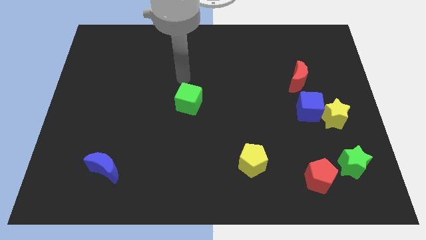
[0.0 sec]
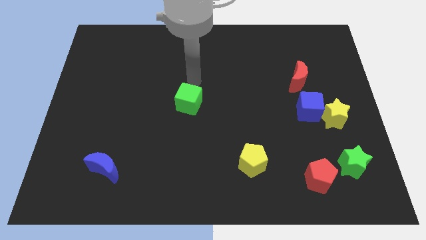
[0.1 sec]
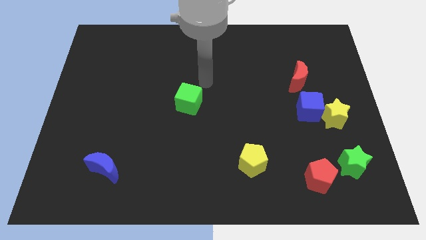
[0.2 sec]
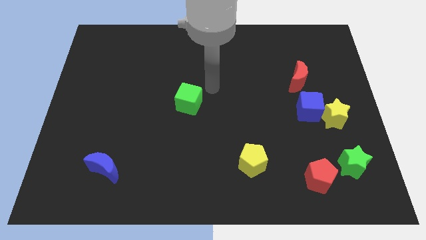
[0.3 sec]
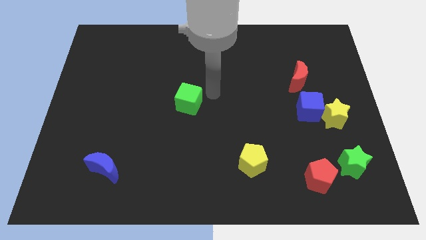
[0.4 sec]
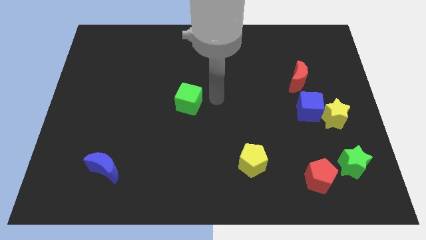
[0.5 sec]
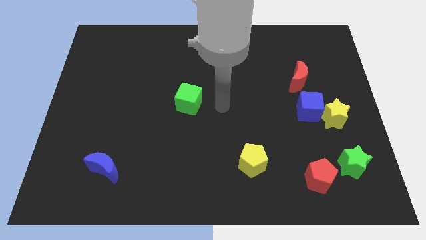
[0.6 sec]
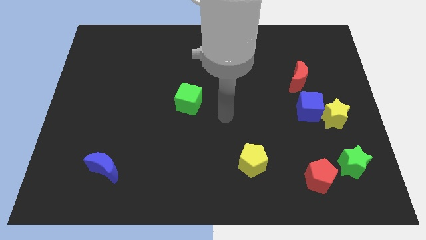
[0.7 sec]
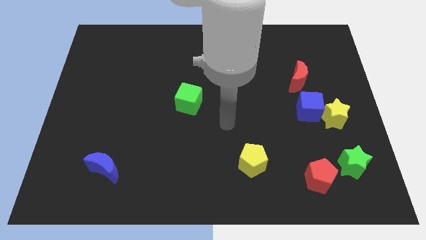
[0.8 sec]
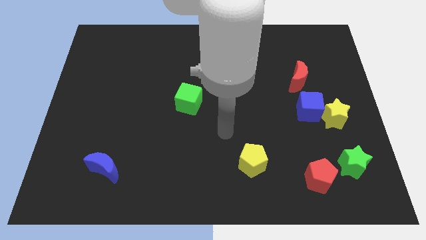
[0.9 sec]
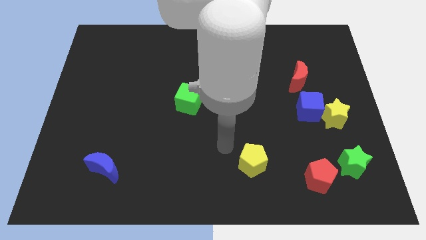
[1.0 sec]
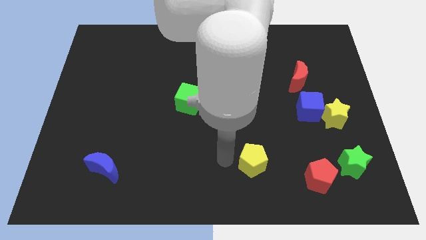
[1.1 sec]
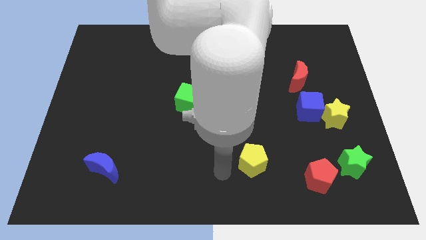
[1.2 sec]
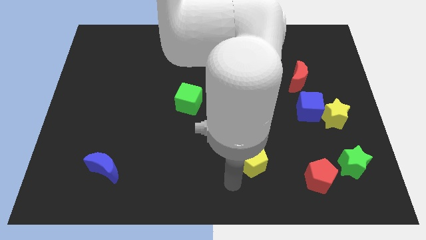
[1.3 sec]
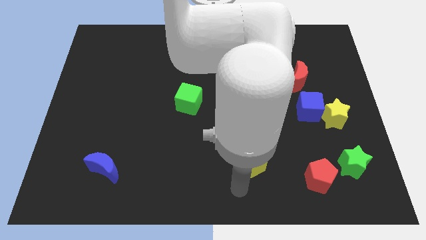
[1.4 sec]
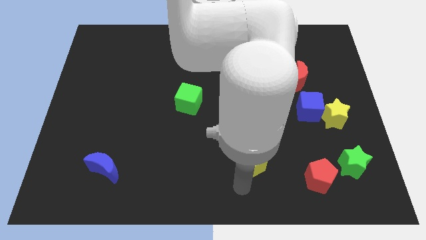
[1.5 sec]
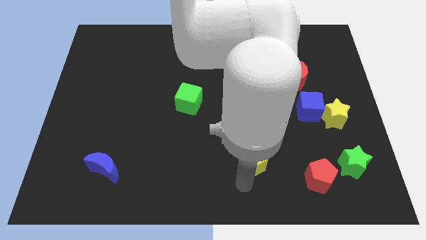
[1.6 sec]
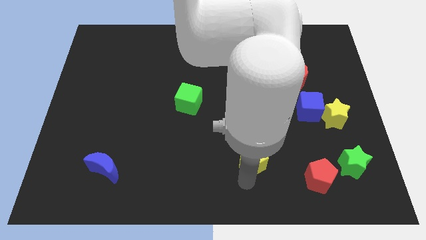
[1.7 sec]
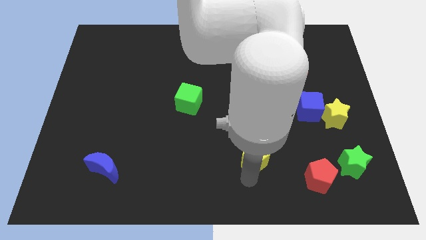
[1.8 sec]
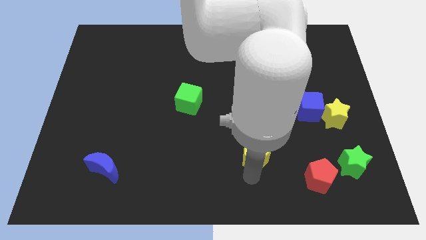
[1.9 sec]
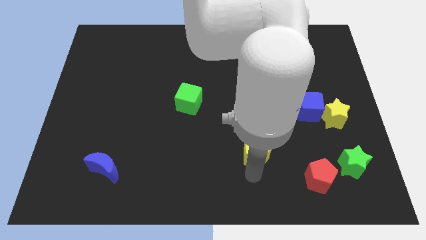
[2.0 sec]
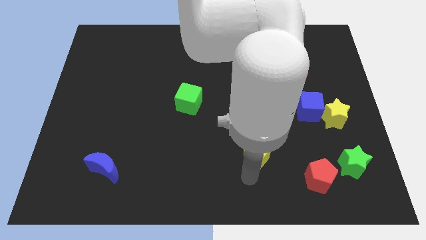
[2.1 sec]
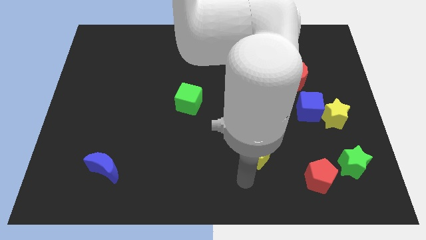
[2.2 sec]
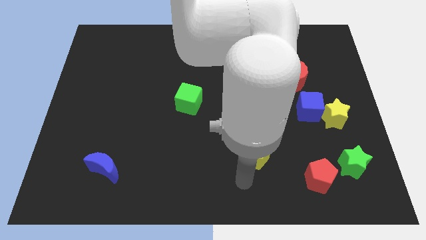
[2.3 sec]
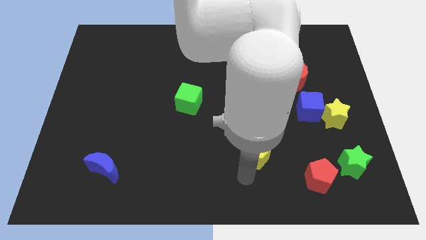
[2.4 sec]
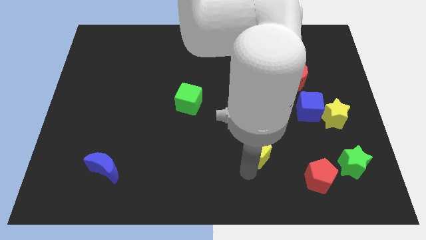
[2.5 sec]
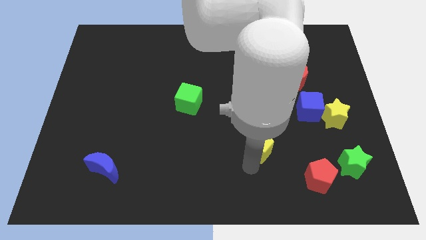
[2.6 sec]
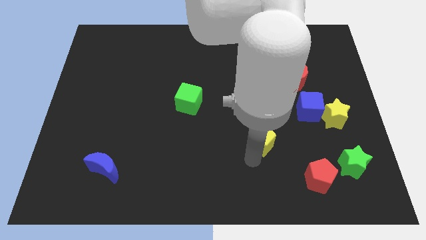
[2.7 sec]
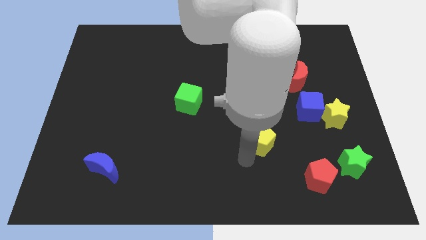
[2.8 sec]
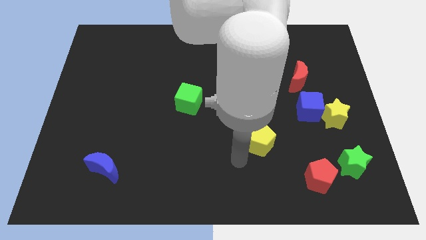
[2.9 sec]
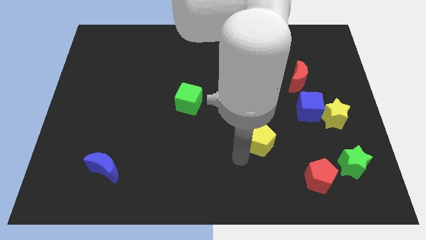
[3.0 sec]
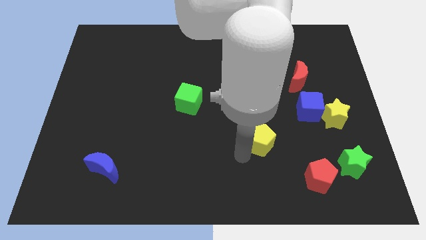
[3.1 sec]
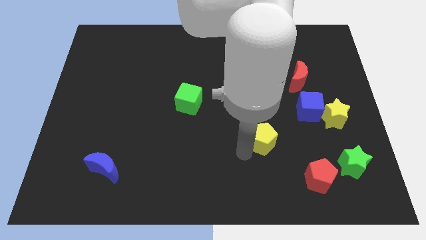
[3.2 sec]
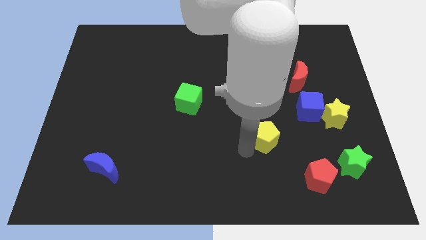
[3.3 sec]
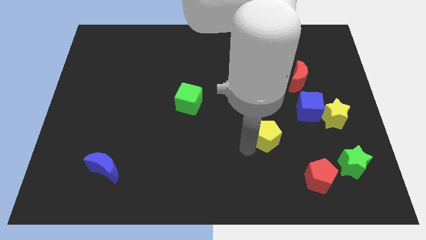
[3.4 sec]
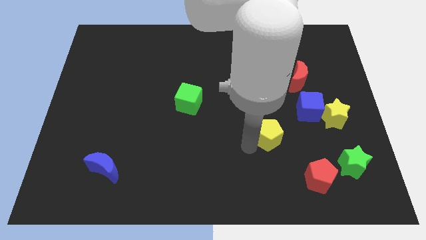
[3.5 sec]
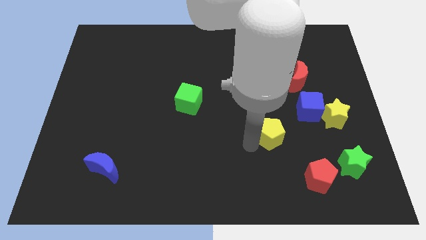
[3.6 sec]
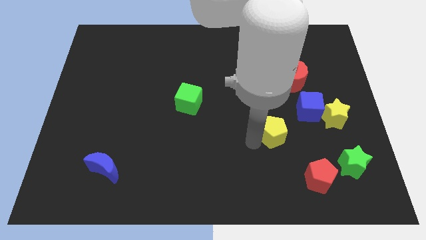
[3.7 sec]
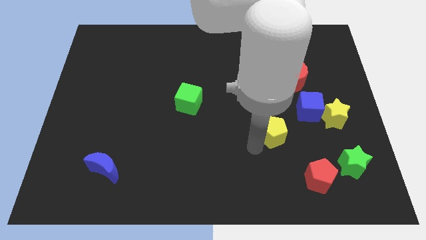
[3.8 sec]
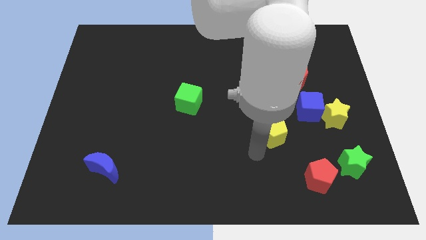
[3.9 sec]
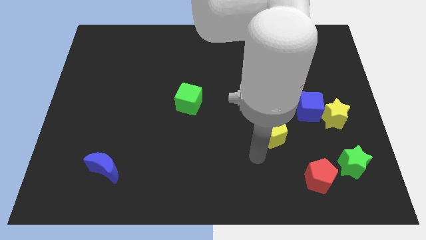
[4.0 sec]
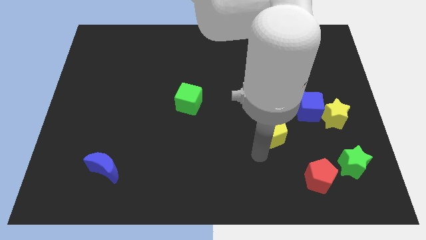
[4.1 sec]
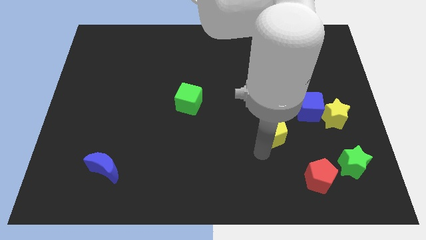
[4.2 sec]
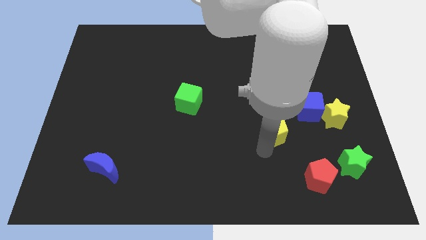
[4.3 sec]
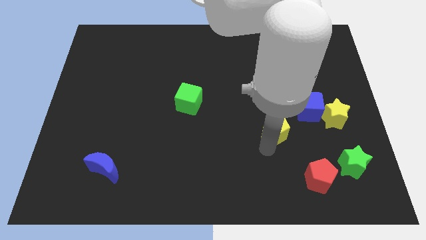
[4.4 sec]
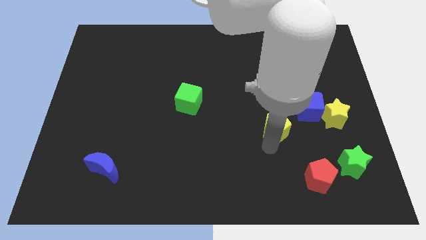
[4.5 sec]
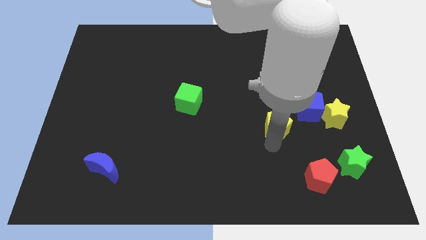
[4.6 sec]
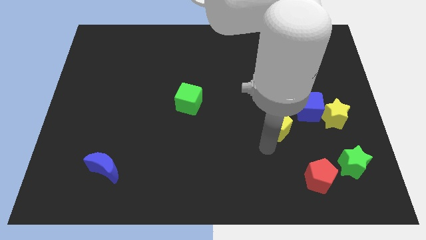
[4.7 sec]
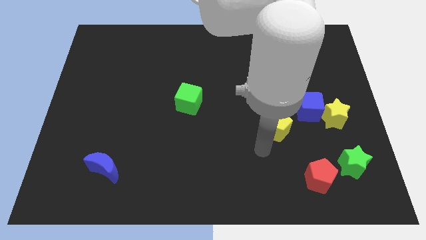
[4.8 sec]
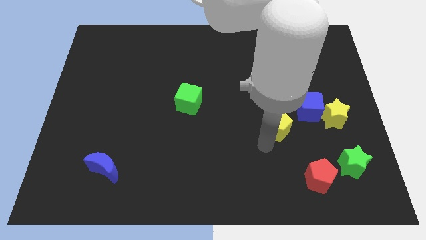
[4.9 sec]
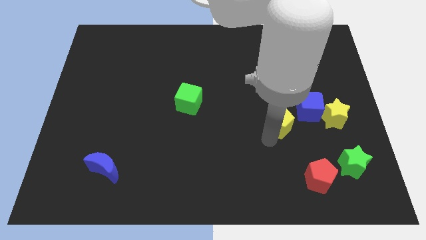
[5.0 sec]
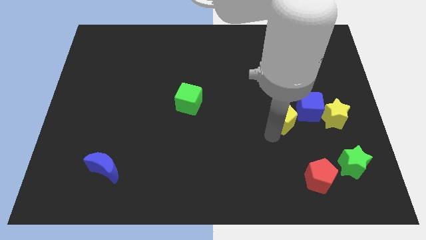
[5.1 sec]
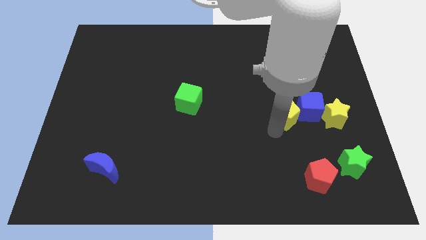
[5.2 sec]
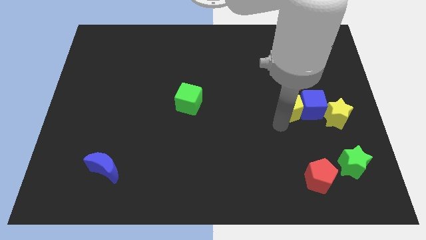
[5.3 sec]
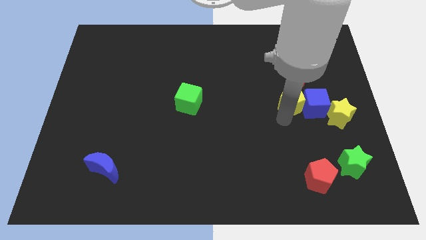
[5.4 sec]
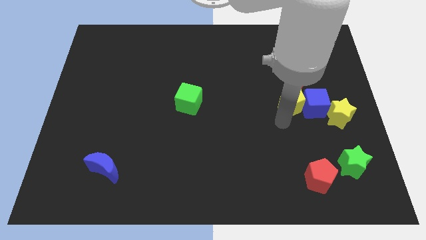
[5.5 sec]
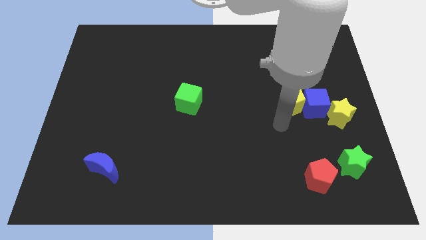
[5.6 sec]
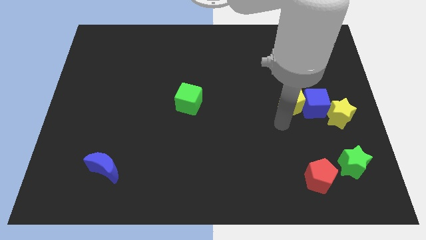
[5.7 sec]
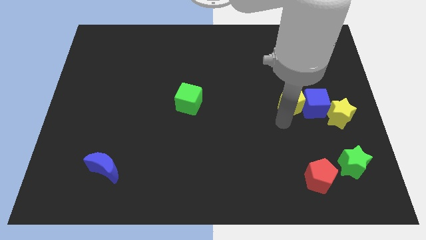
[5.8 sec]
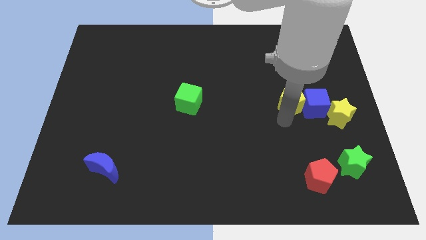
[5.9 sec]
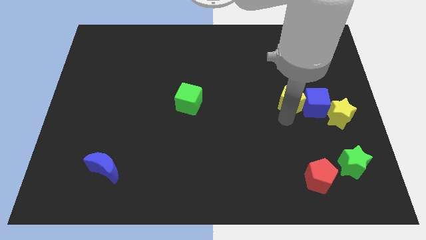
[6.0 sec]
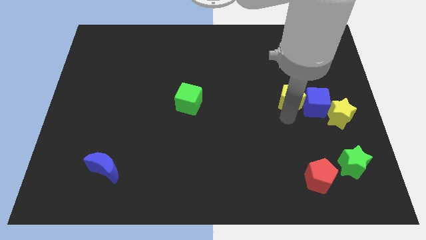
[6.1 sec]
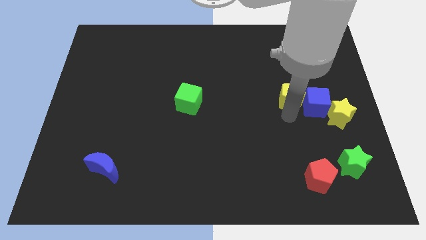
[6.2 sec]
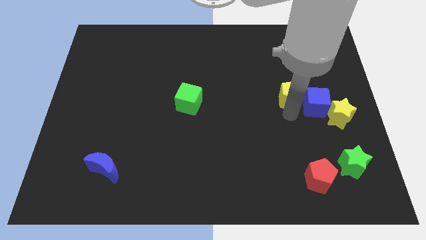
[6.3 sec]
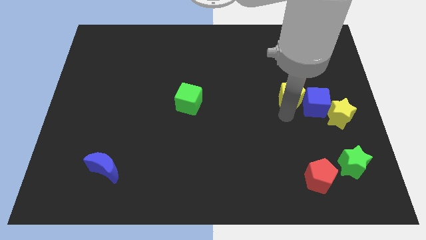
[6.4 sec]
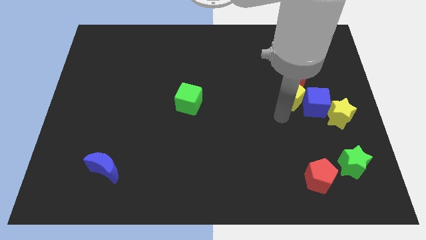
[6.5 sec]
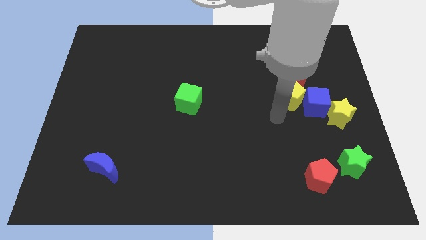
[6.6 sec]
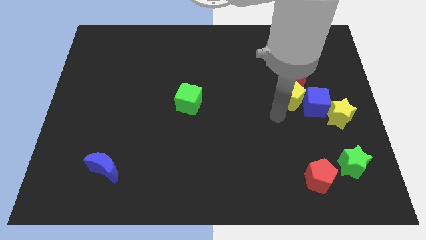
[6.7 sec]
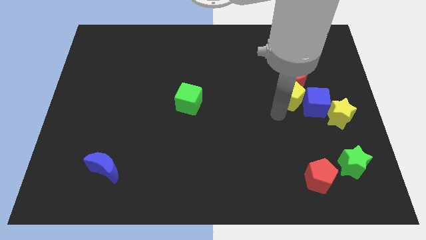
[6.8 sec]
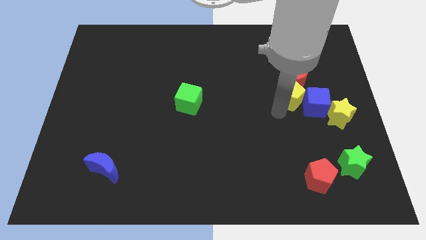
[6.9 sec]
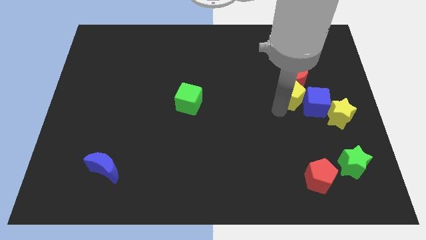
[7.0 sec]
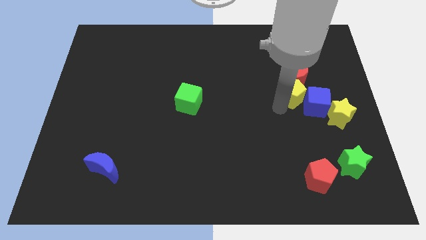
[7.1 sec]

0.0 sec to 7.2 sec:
put the yellow pentagon close to the red moon
